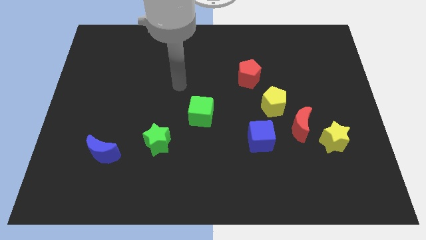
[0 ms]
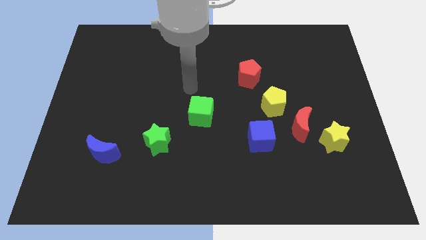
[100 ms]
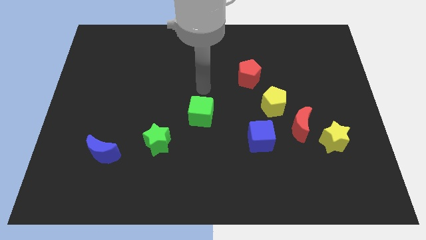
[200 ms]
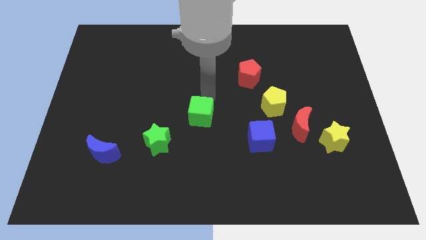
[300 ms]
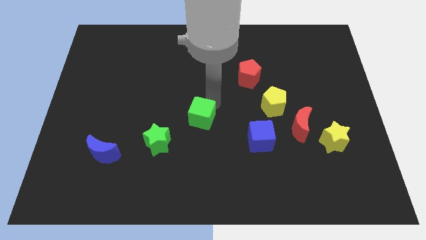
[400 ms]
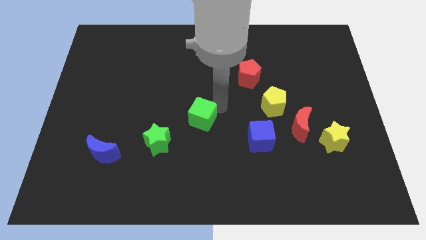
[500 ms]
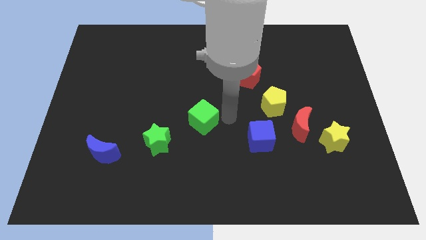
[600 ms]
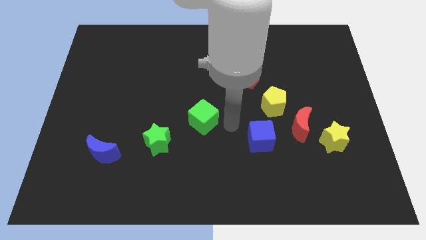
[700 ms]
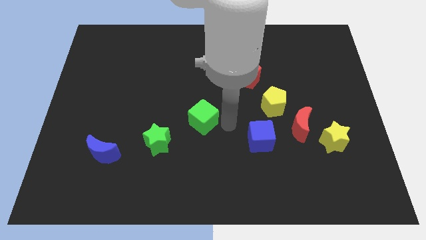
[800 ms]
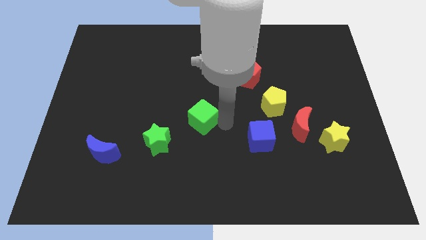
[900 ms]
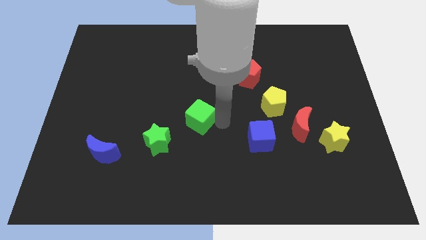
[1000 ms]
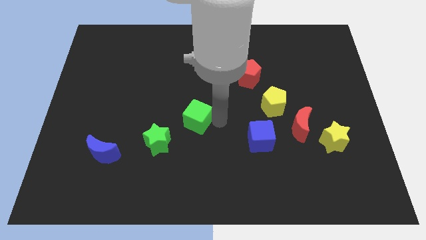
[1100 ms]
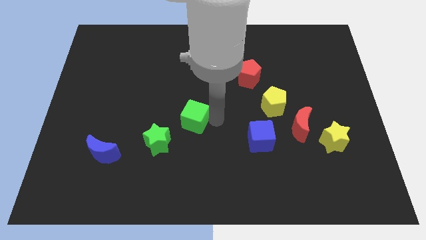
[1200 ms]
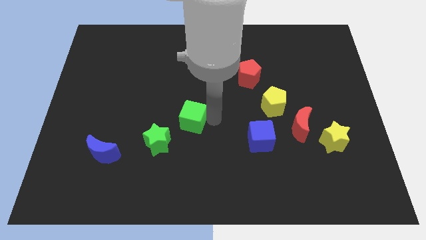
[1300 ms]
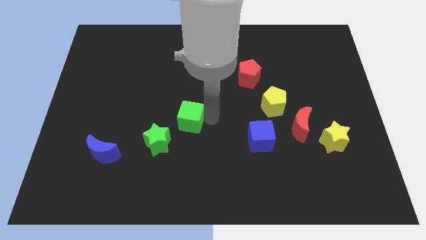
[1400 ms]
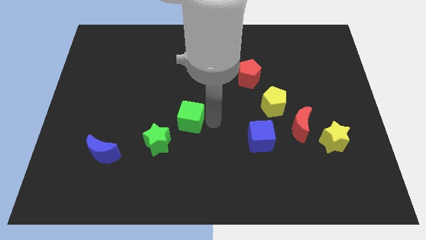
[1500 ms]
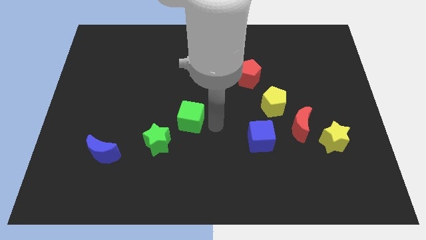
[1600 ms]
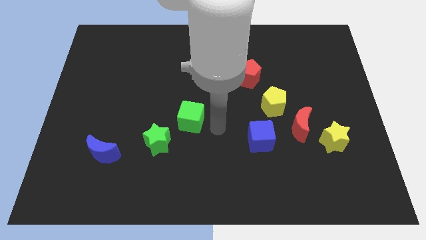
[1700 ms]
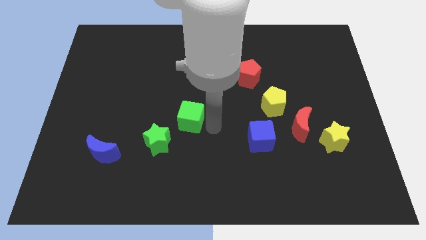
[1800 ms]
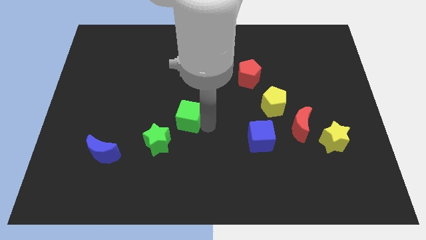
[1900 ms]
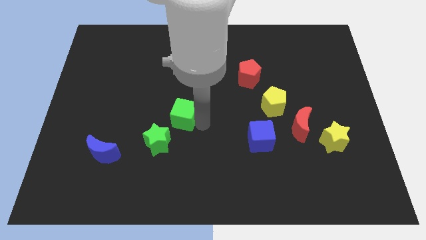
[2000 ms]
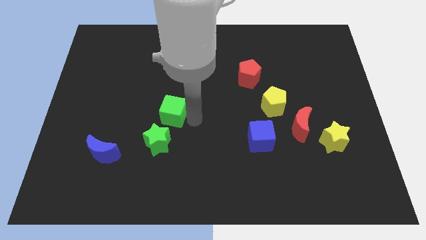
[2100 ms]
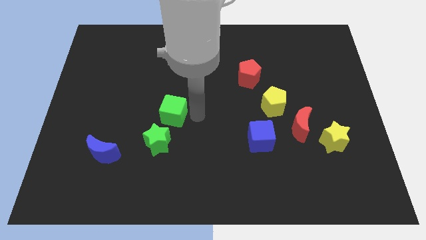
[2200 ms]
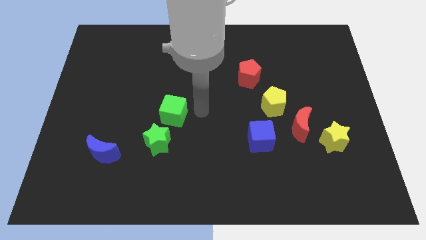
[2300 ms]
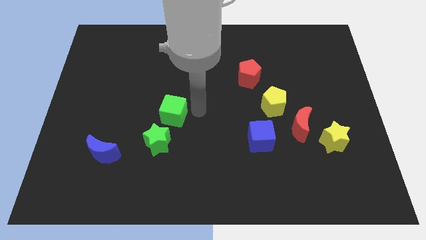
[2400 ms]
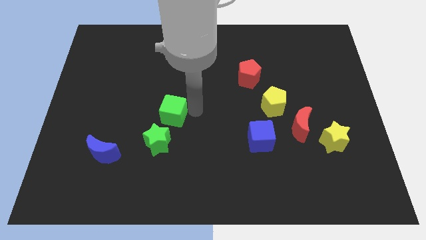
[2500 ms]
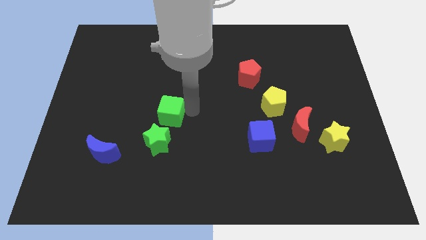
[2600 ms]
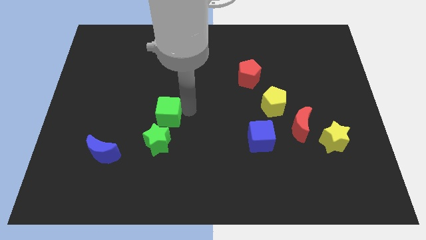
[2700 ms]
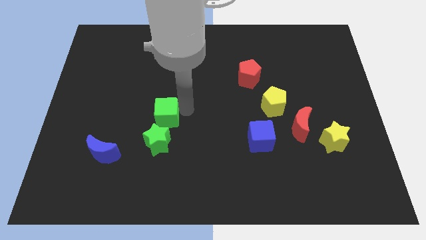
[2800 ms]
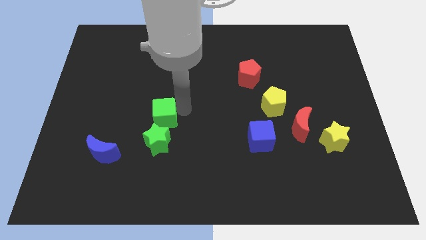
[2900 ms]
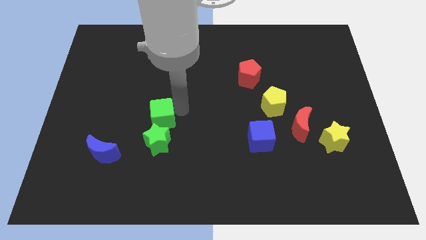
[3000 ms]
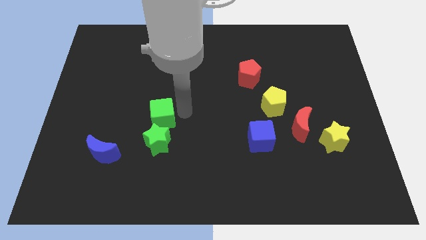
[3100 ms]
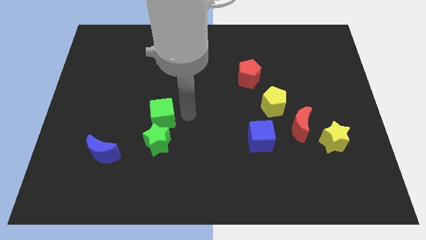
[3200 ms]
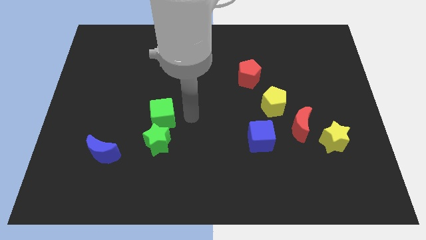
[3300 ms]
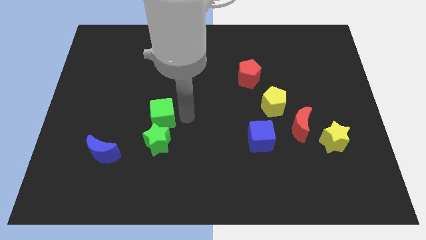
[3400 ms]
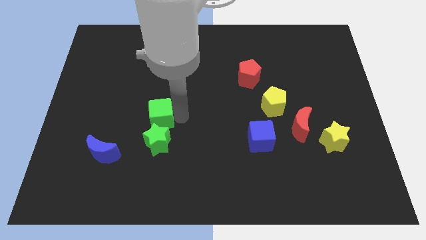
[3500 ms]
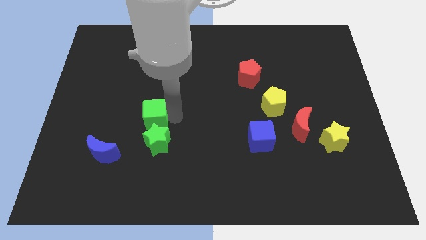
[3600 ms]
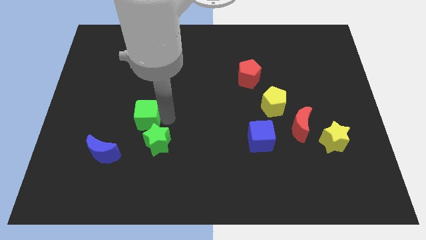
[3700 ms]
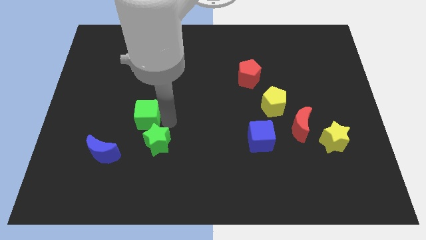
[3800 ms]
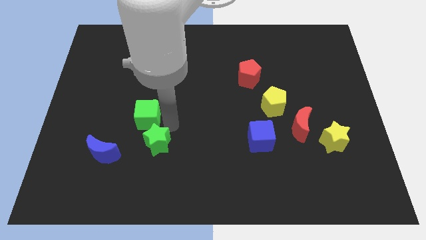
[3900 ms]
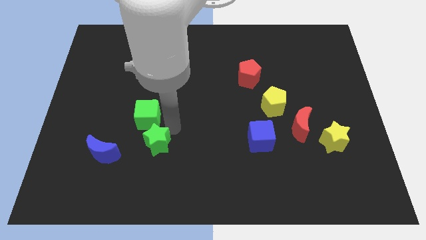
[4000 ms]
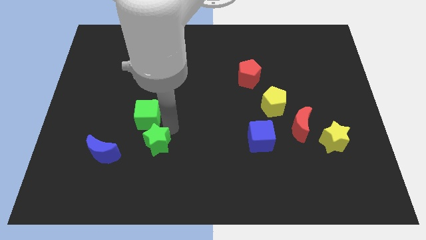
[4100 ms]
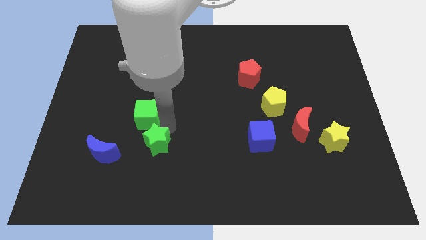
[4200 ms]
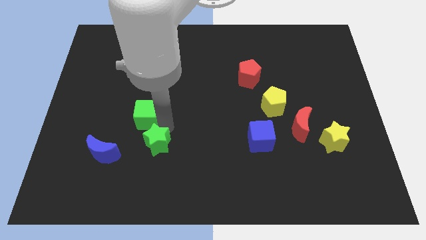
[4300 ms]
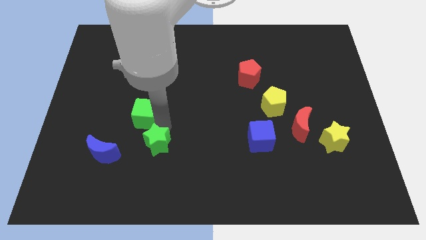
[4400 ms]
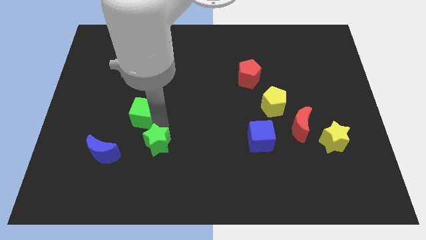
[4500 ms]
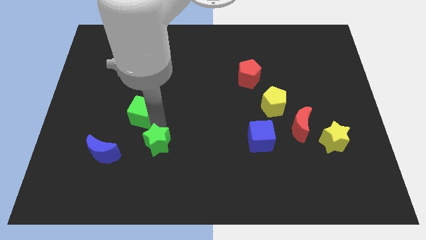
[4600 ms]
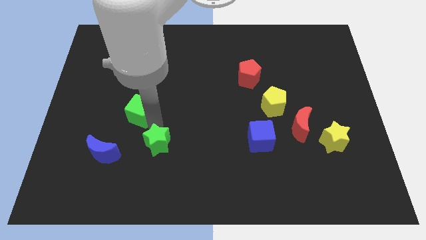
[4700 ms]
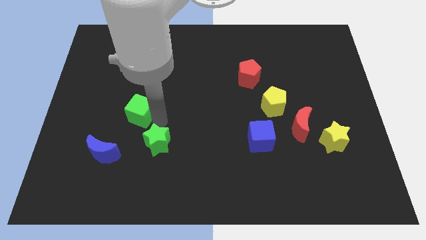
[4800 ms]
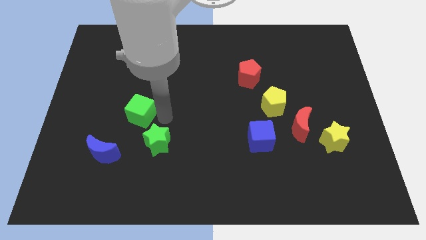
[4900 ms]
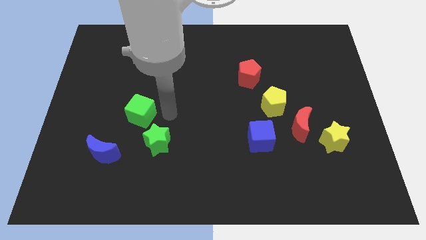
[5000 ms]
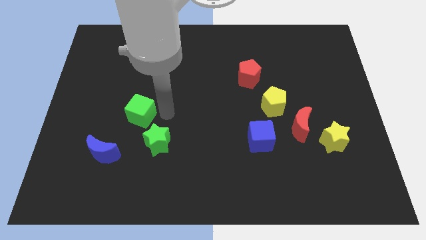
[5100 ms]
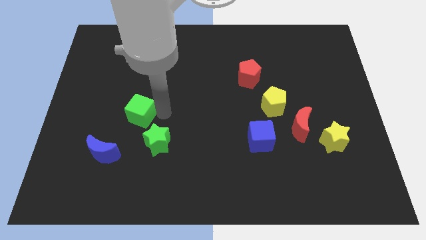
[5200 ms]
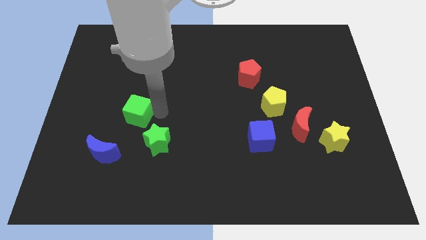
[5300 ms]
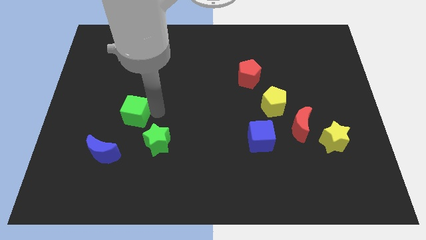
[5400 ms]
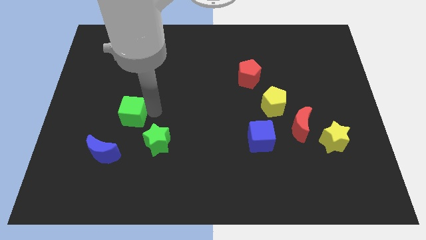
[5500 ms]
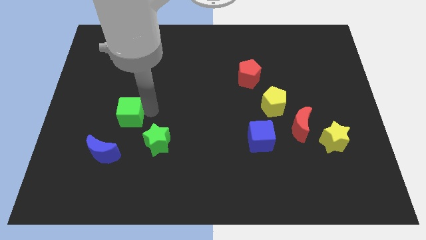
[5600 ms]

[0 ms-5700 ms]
slide the green cube above the blue moon

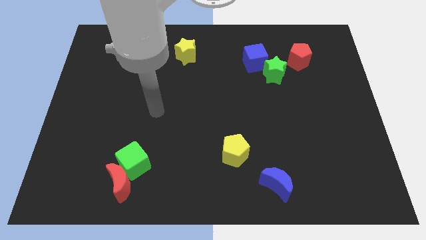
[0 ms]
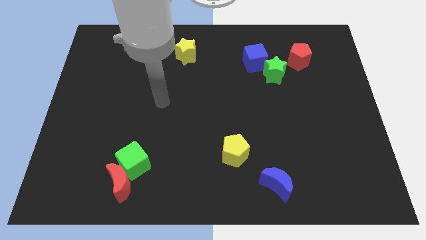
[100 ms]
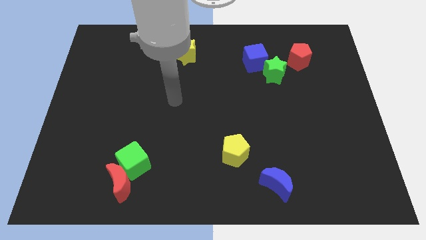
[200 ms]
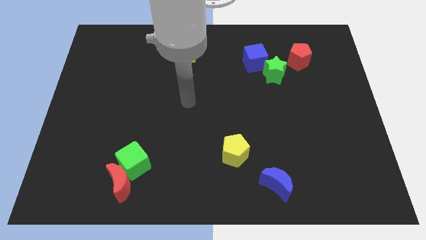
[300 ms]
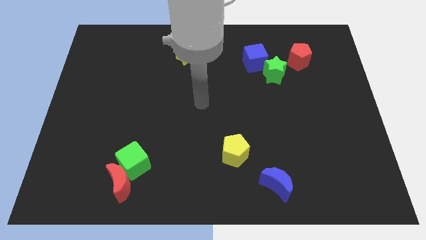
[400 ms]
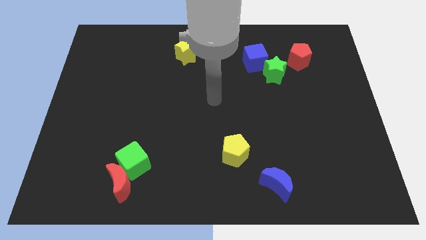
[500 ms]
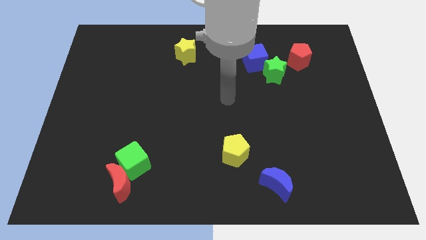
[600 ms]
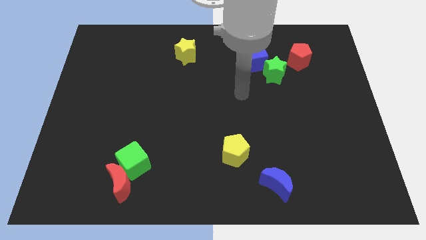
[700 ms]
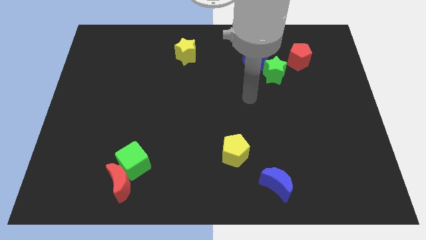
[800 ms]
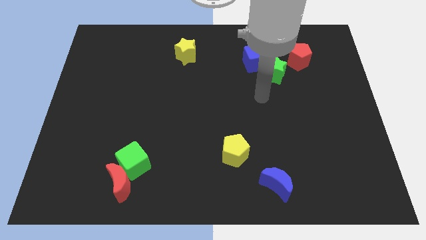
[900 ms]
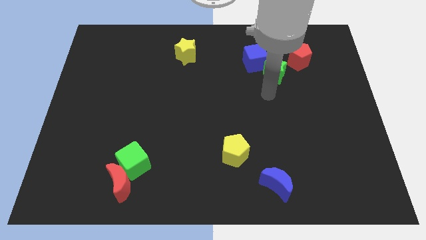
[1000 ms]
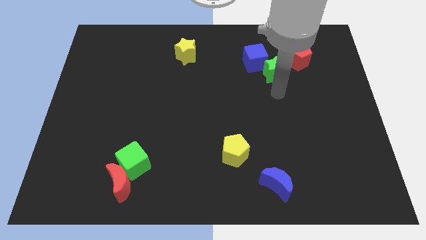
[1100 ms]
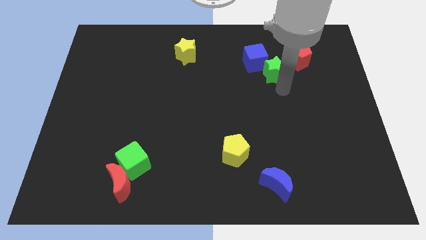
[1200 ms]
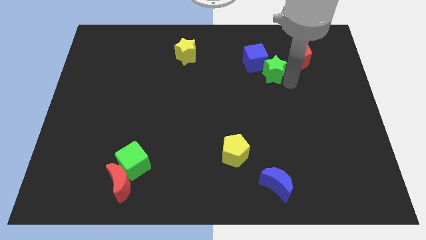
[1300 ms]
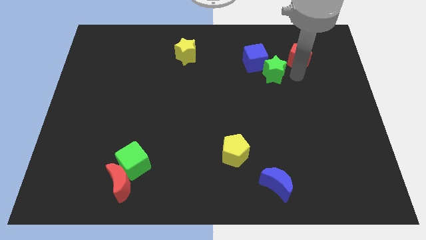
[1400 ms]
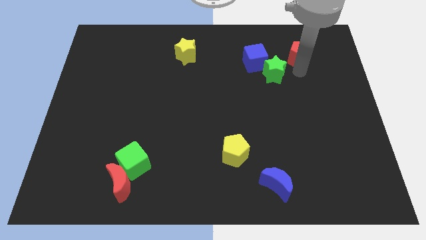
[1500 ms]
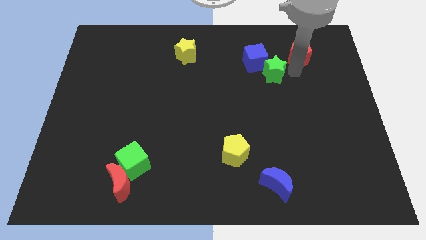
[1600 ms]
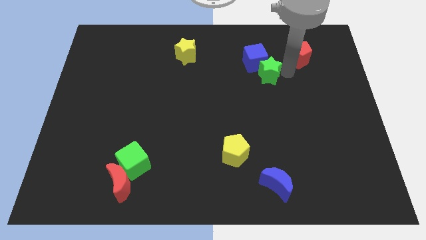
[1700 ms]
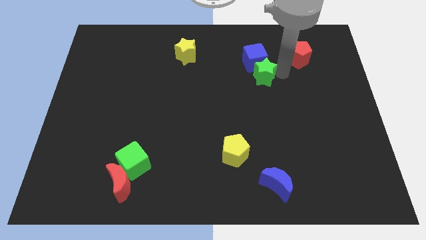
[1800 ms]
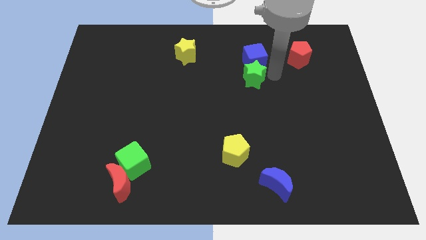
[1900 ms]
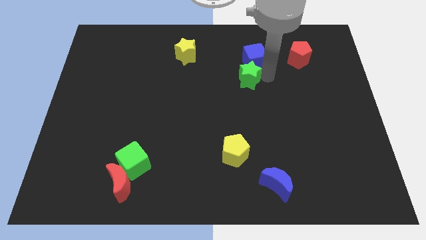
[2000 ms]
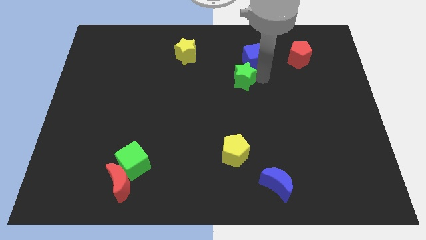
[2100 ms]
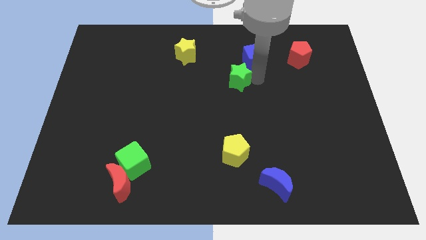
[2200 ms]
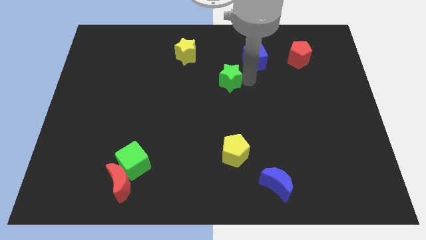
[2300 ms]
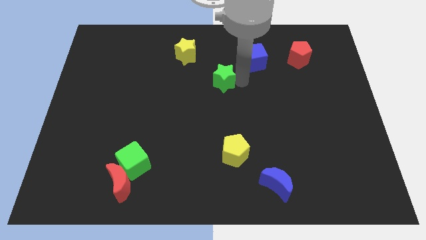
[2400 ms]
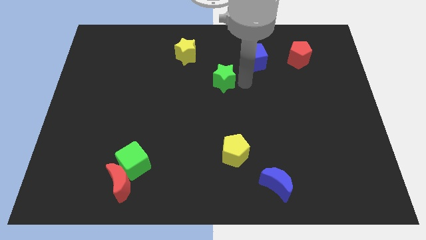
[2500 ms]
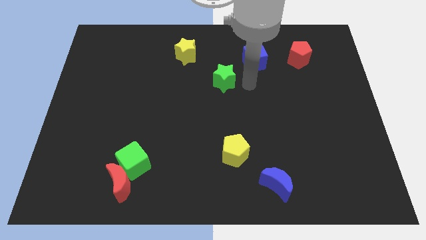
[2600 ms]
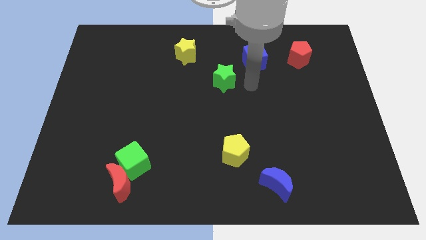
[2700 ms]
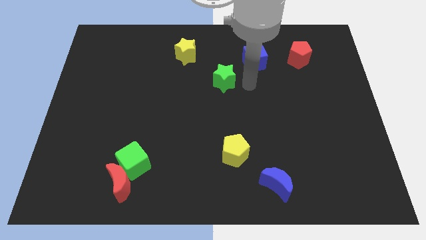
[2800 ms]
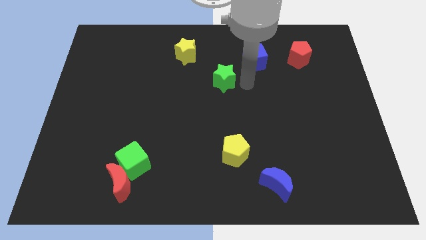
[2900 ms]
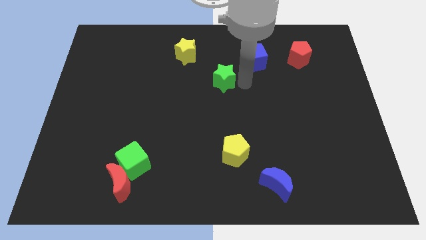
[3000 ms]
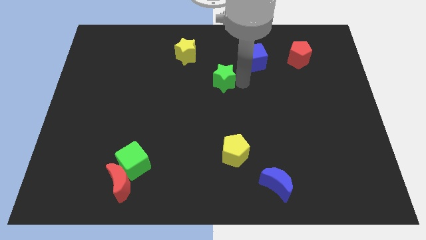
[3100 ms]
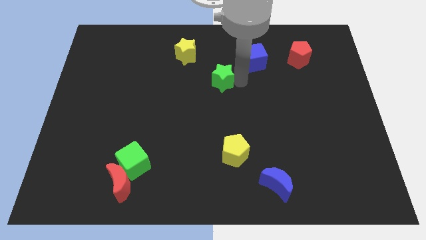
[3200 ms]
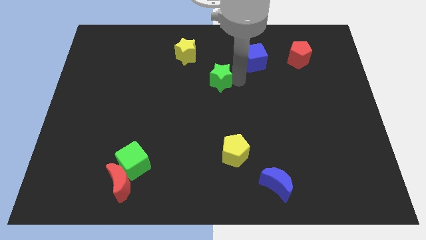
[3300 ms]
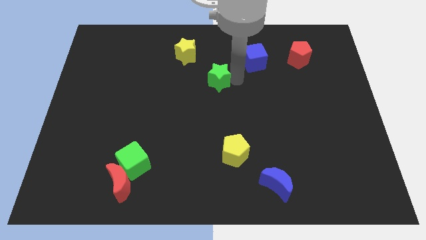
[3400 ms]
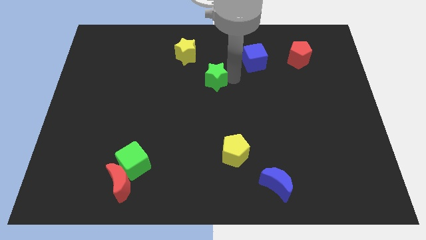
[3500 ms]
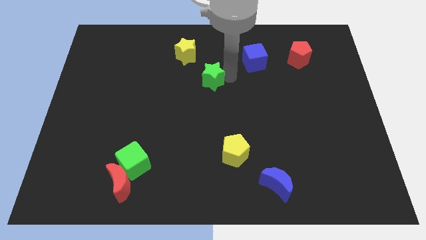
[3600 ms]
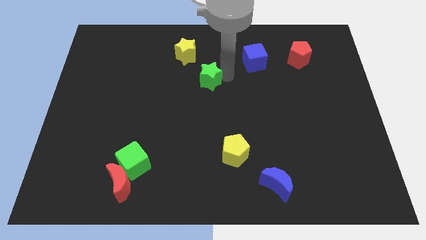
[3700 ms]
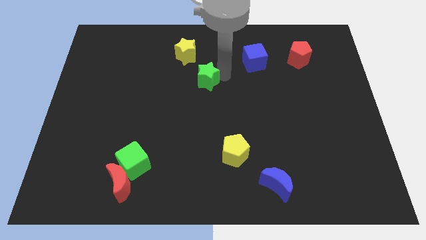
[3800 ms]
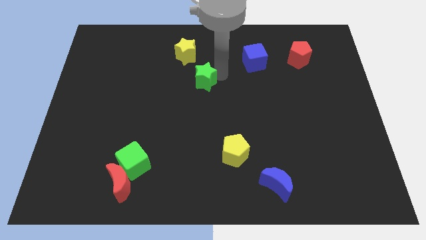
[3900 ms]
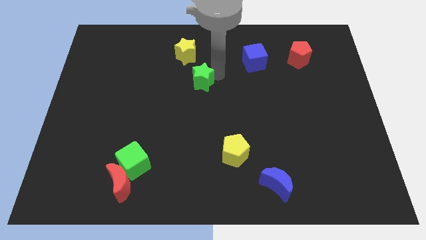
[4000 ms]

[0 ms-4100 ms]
move the green star below the yellow star
